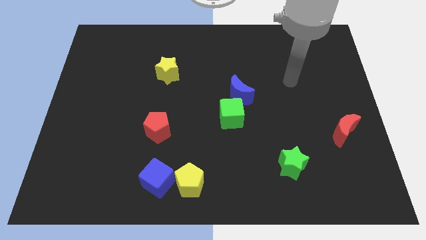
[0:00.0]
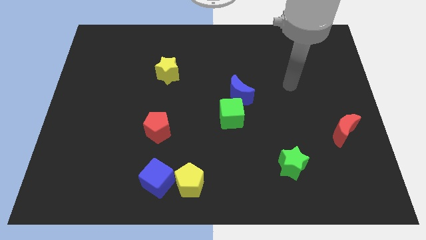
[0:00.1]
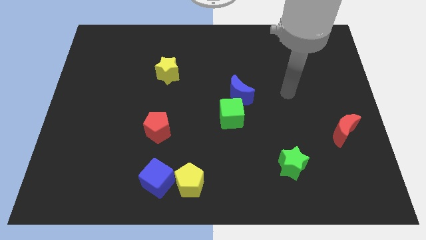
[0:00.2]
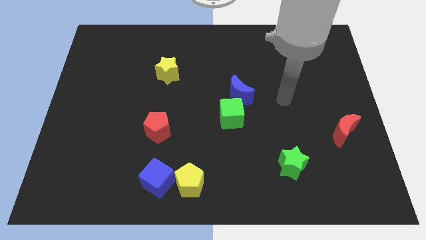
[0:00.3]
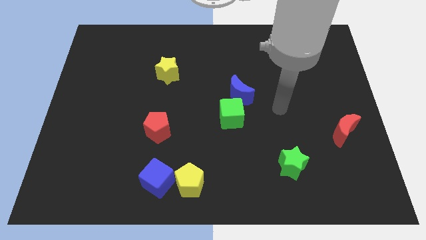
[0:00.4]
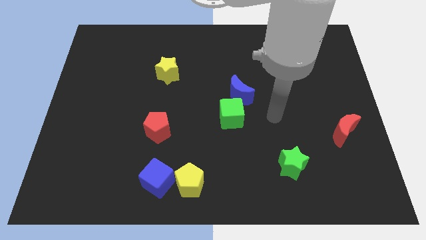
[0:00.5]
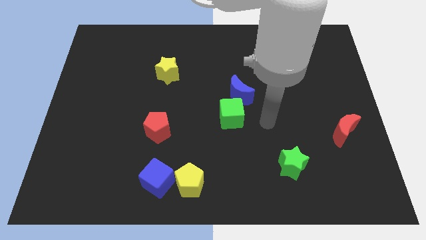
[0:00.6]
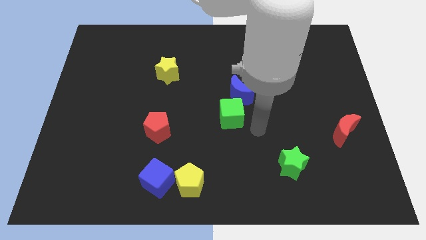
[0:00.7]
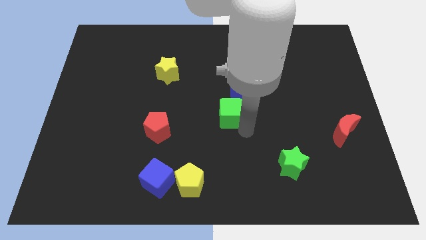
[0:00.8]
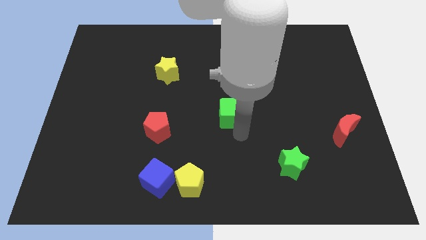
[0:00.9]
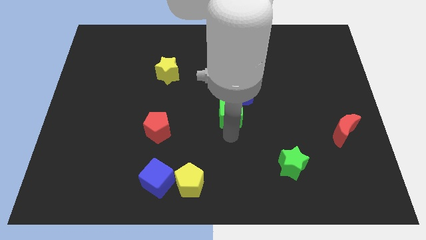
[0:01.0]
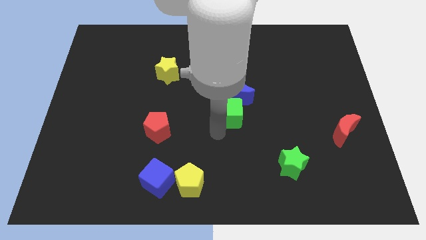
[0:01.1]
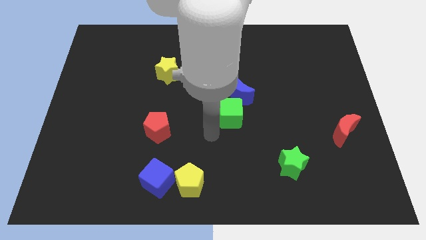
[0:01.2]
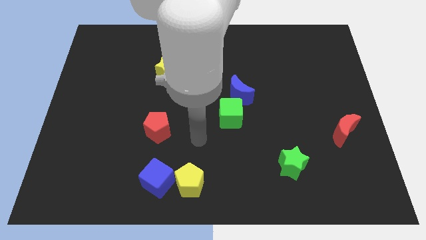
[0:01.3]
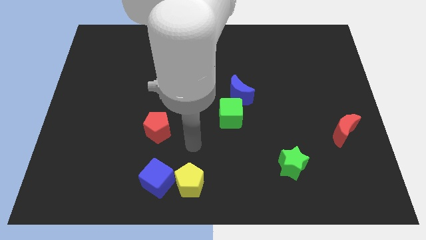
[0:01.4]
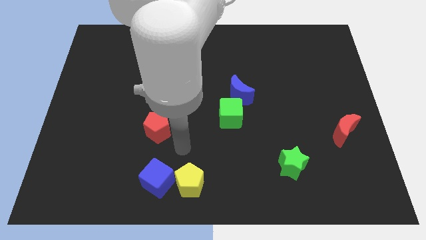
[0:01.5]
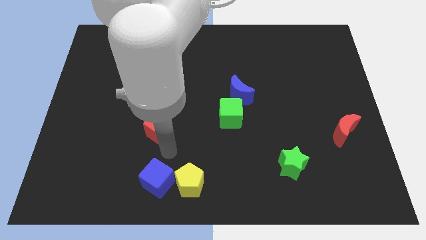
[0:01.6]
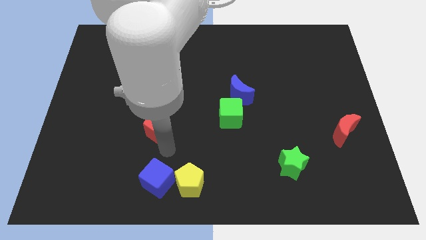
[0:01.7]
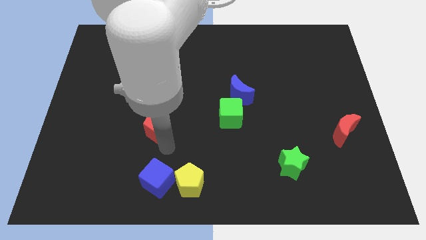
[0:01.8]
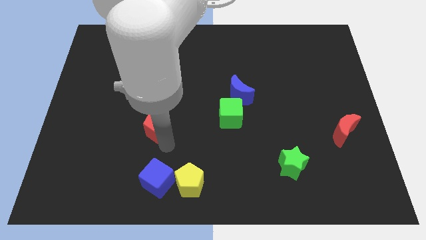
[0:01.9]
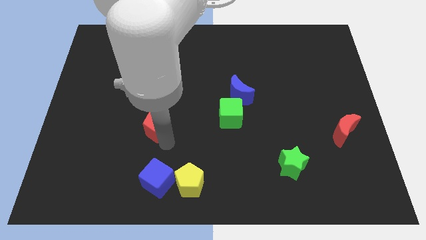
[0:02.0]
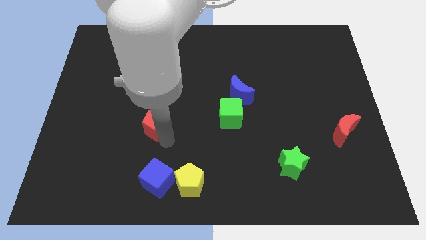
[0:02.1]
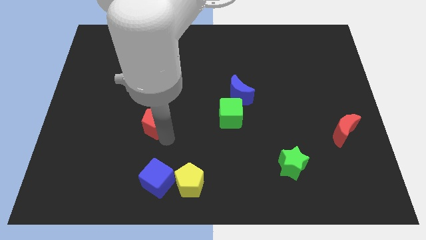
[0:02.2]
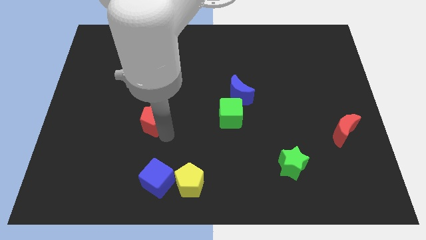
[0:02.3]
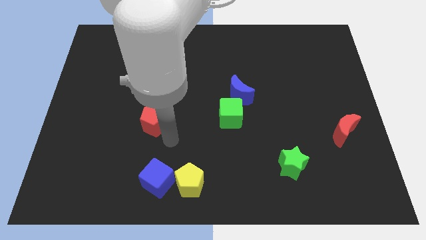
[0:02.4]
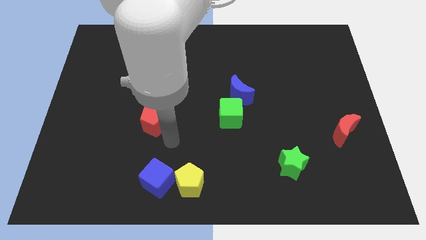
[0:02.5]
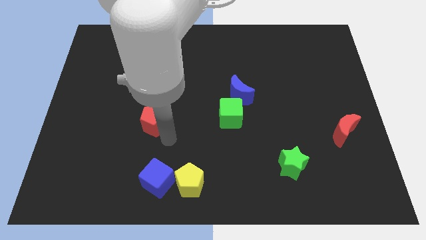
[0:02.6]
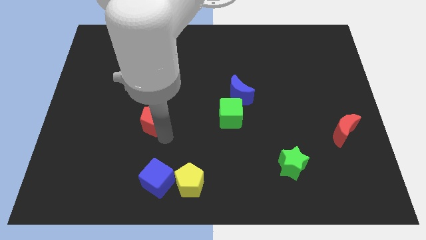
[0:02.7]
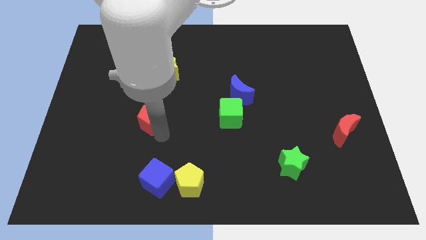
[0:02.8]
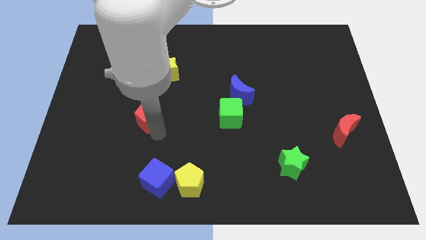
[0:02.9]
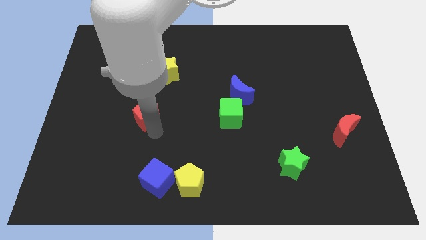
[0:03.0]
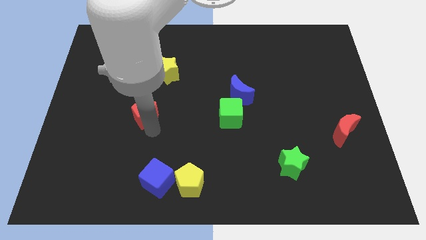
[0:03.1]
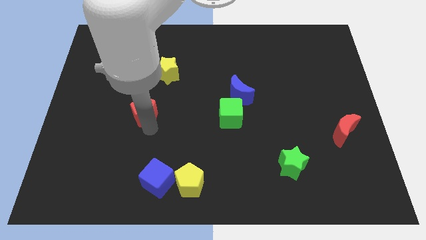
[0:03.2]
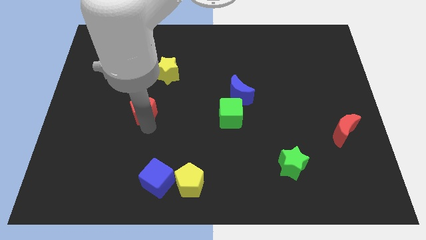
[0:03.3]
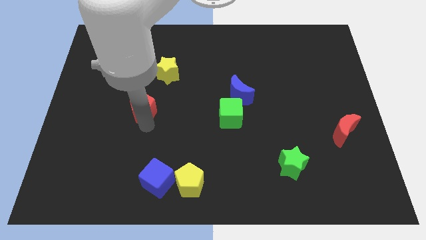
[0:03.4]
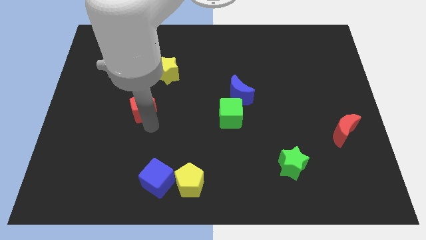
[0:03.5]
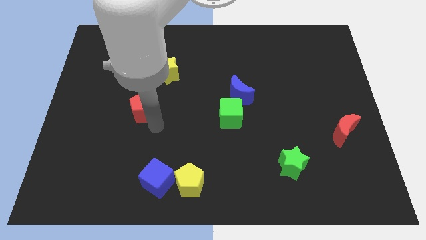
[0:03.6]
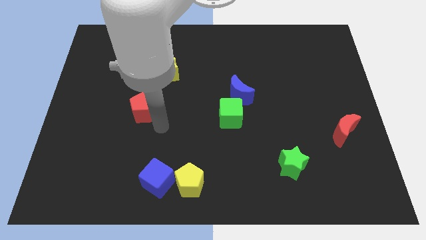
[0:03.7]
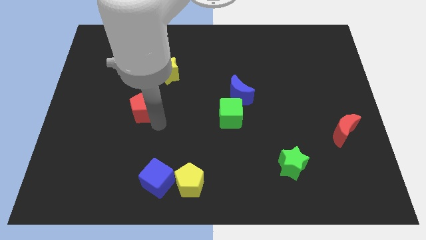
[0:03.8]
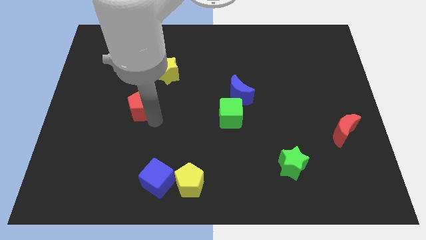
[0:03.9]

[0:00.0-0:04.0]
slide the red pentagon up and to the left diagonally a bit

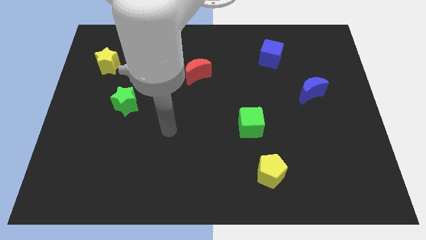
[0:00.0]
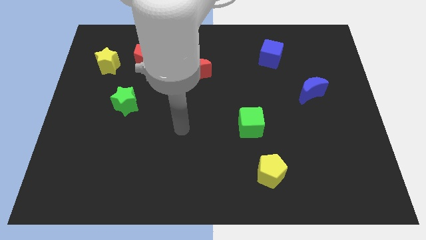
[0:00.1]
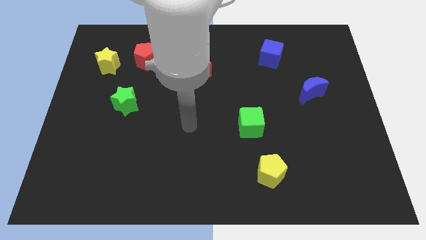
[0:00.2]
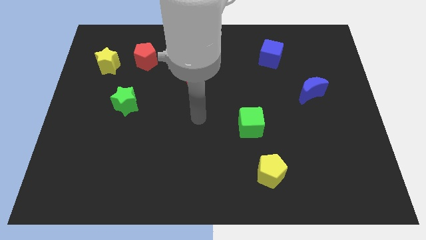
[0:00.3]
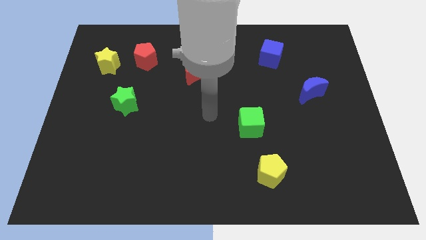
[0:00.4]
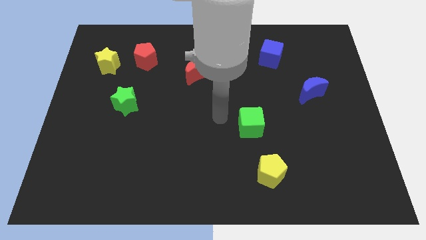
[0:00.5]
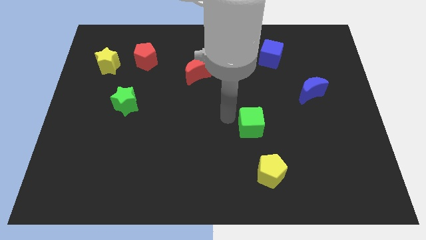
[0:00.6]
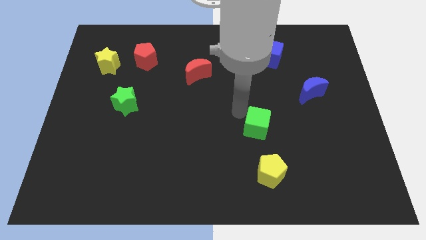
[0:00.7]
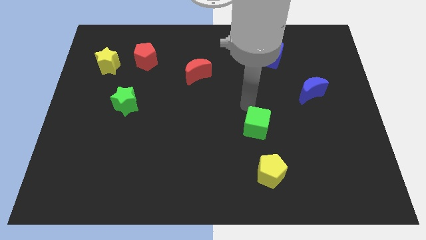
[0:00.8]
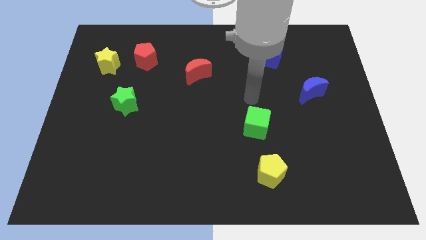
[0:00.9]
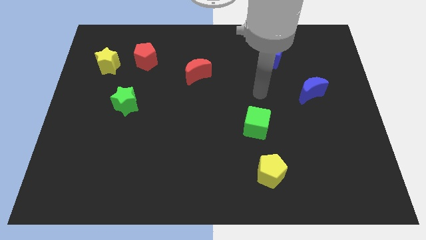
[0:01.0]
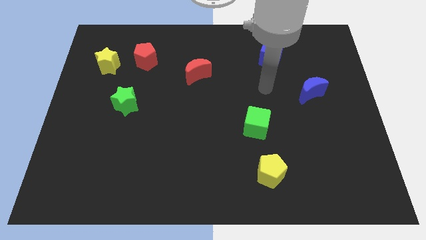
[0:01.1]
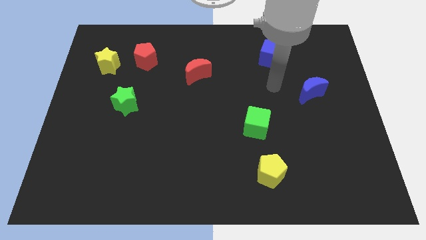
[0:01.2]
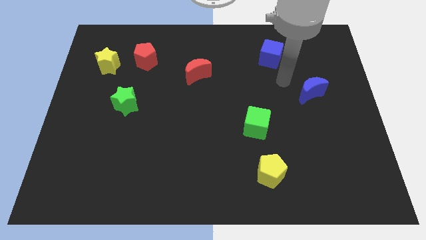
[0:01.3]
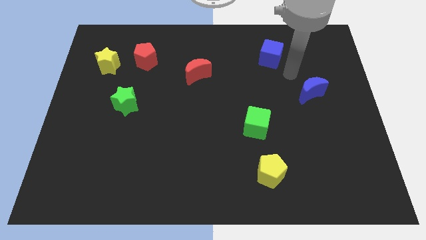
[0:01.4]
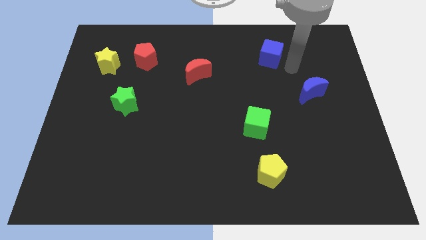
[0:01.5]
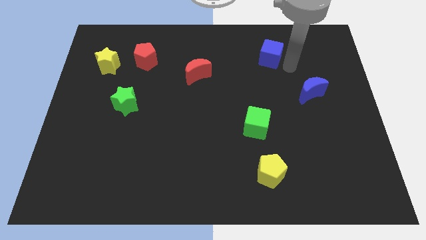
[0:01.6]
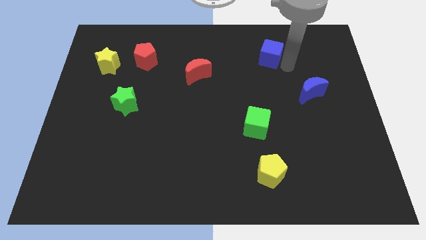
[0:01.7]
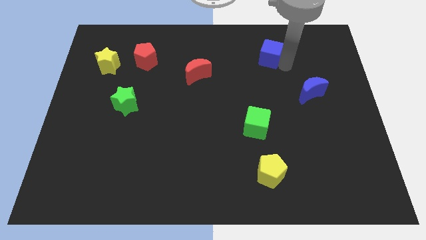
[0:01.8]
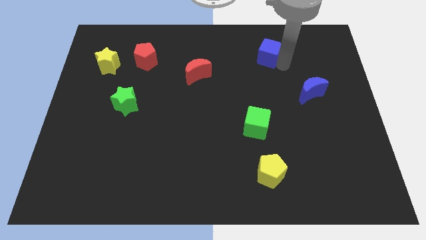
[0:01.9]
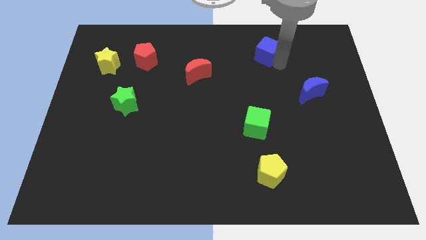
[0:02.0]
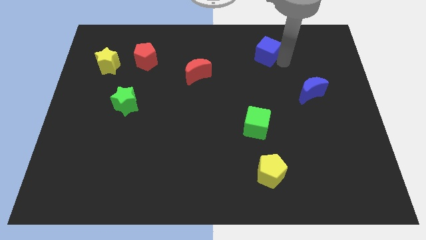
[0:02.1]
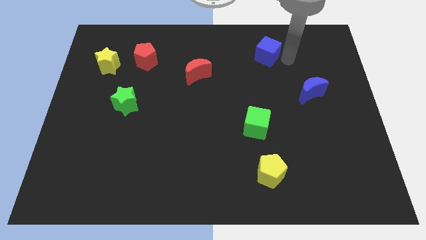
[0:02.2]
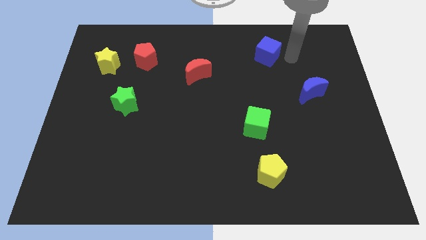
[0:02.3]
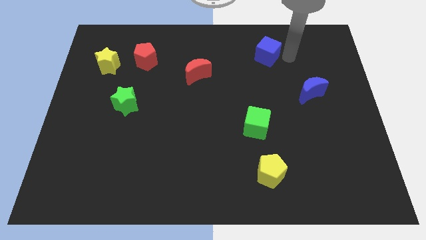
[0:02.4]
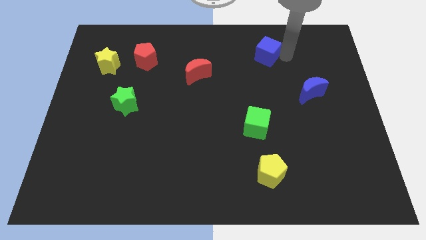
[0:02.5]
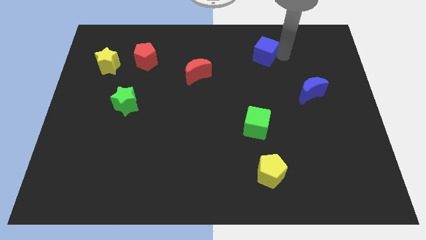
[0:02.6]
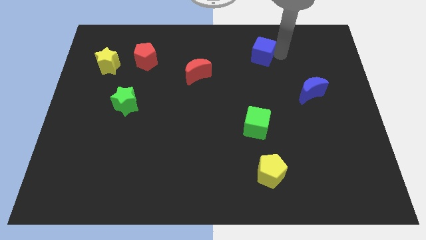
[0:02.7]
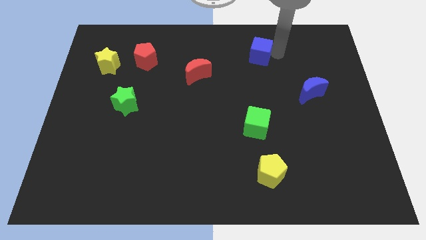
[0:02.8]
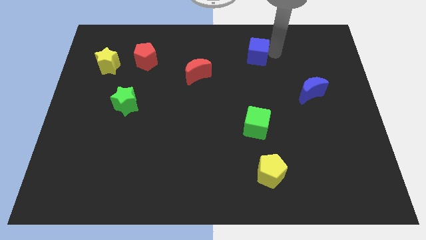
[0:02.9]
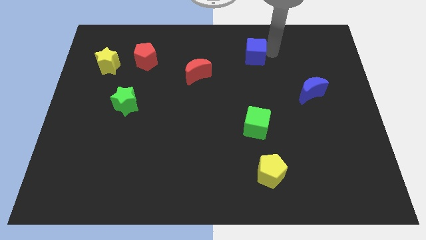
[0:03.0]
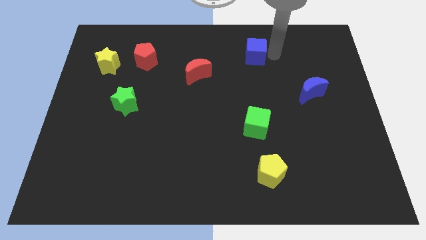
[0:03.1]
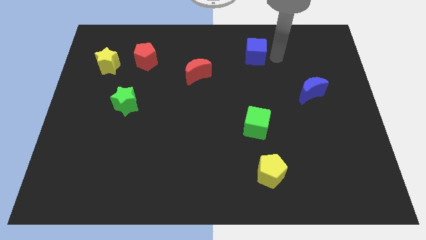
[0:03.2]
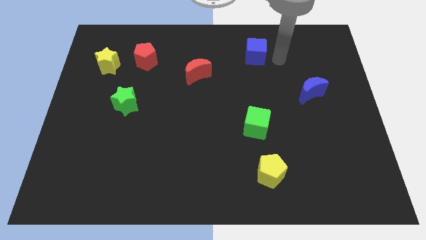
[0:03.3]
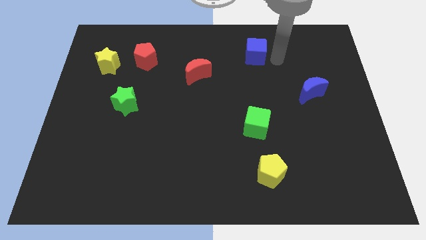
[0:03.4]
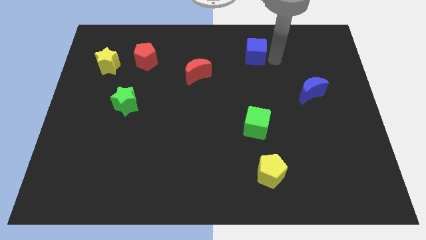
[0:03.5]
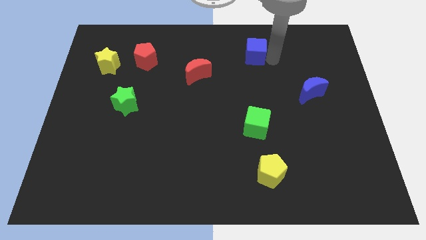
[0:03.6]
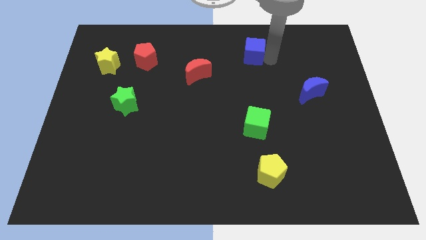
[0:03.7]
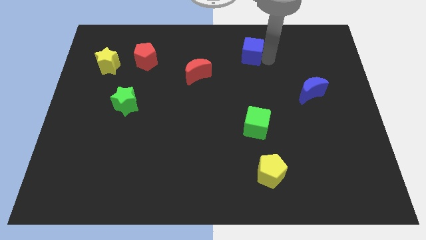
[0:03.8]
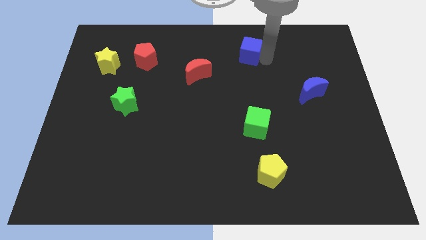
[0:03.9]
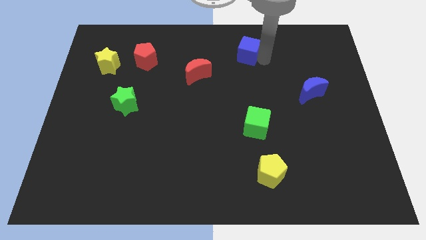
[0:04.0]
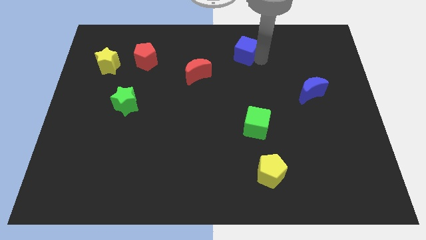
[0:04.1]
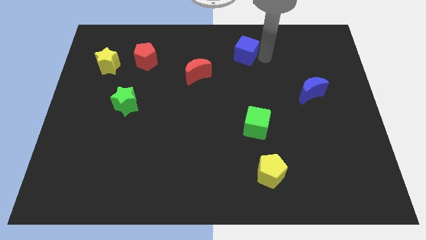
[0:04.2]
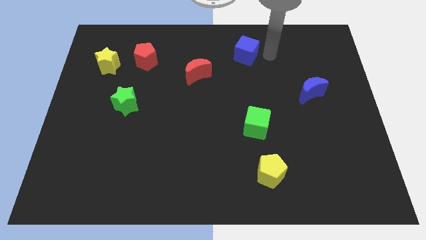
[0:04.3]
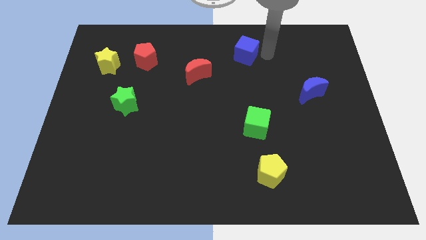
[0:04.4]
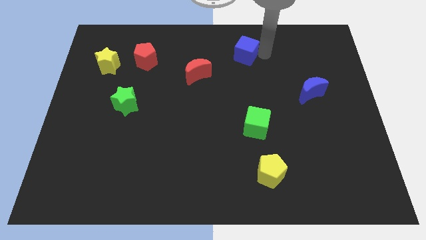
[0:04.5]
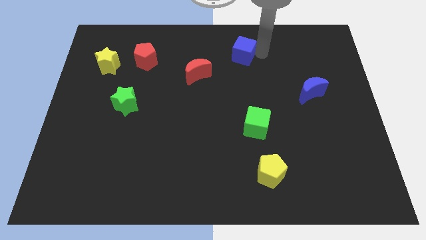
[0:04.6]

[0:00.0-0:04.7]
push the blue cube left a little bit
